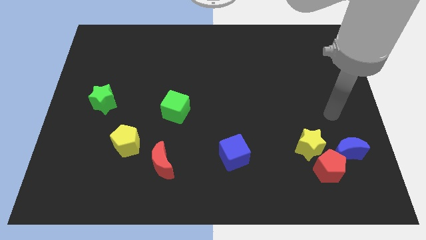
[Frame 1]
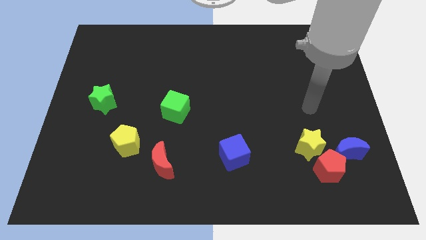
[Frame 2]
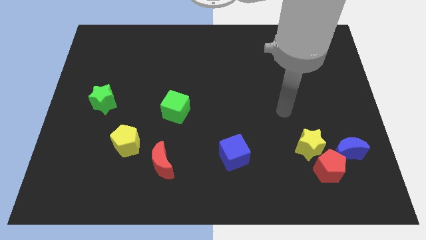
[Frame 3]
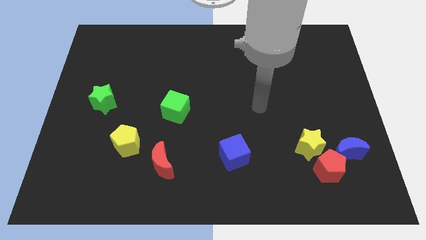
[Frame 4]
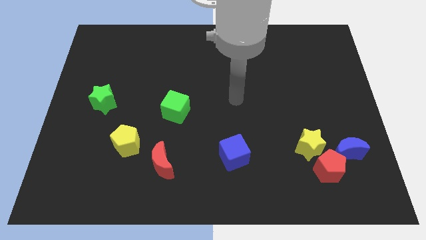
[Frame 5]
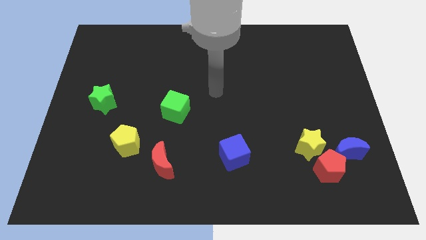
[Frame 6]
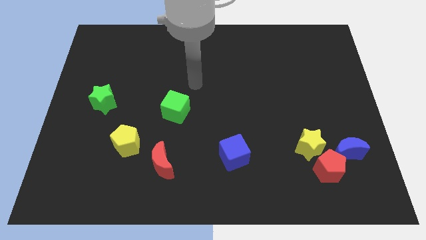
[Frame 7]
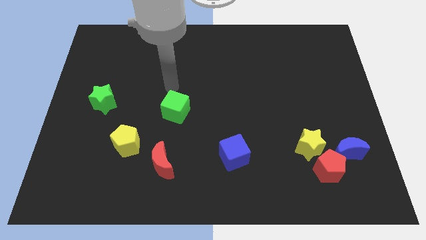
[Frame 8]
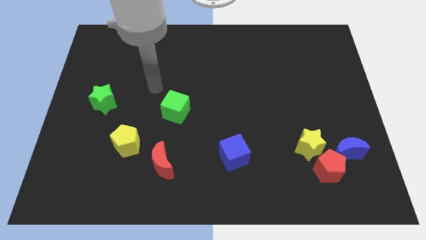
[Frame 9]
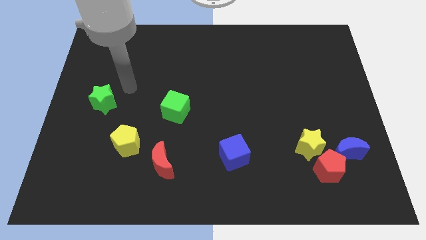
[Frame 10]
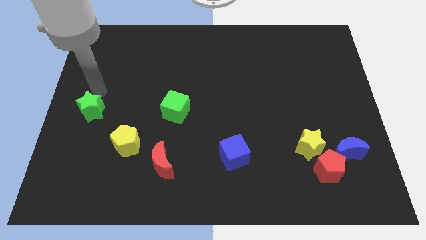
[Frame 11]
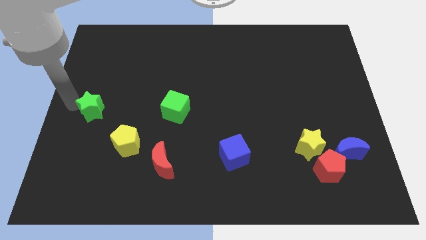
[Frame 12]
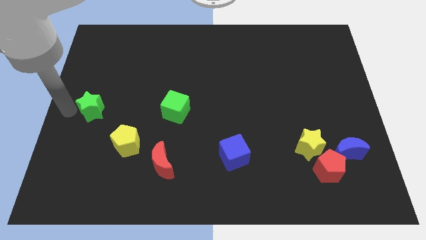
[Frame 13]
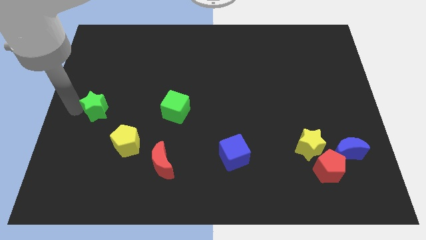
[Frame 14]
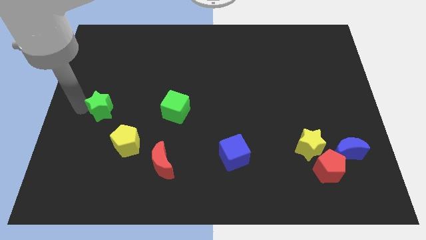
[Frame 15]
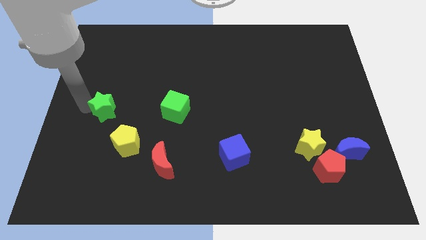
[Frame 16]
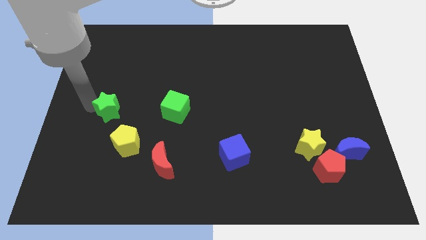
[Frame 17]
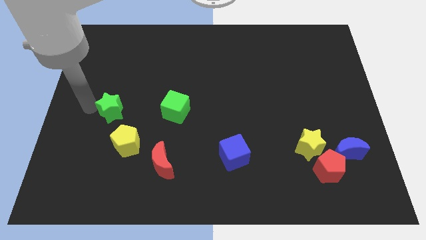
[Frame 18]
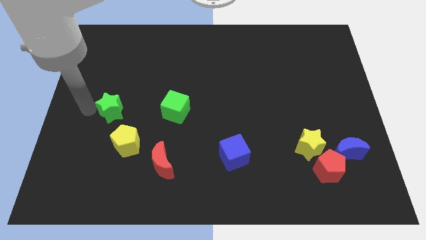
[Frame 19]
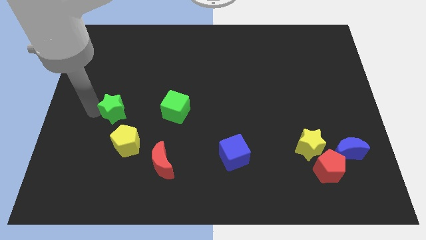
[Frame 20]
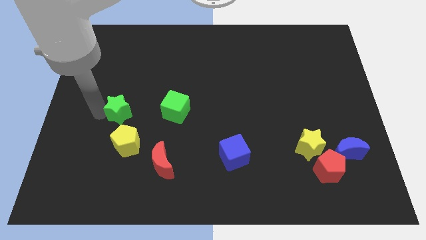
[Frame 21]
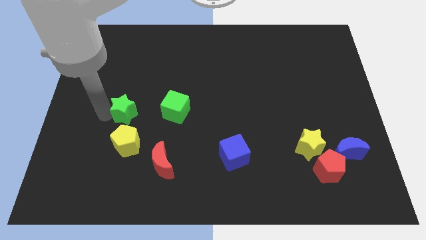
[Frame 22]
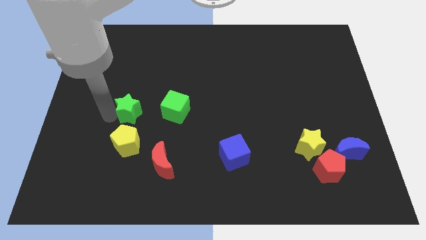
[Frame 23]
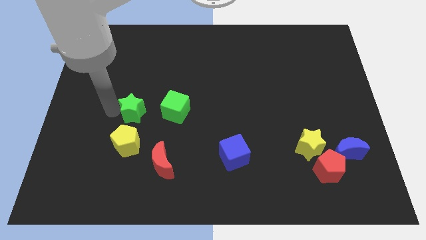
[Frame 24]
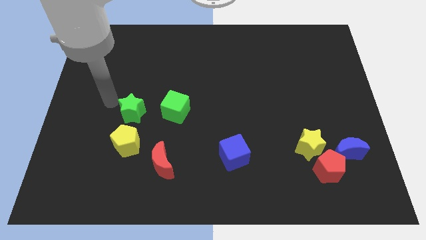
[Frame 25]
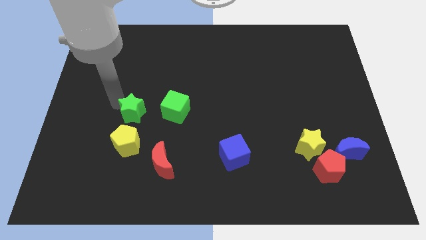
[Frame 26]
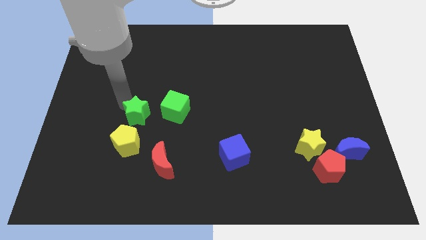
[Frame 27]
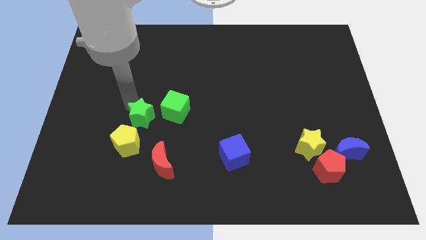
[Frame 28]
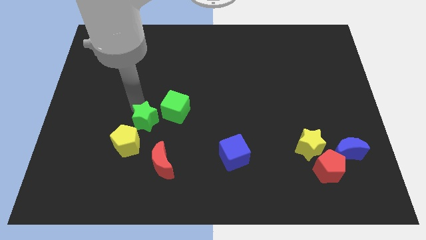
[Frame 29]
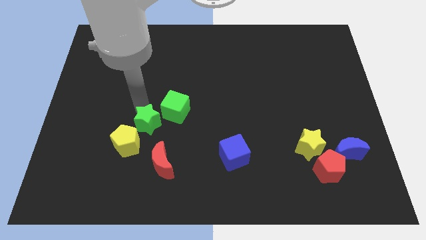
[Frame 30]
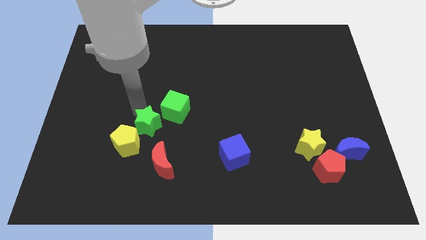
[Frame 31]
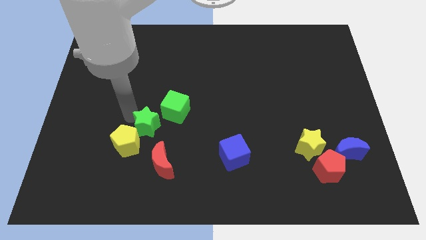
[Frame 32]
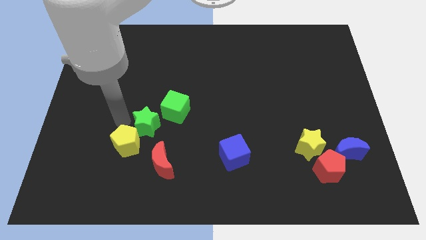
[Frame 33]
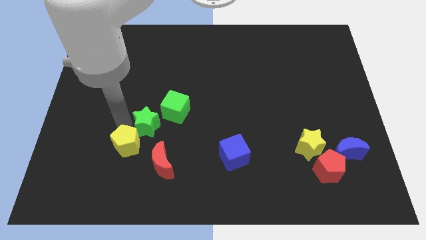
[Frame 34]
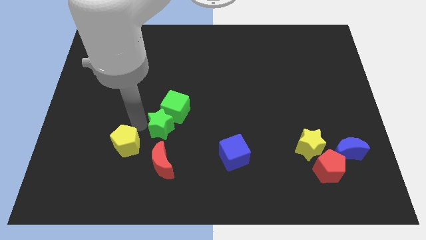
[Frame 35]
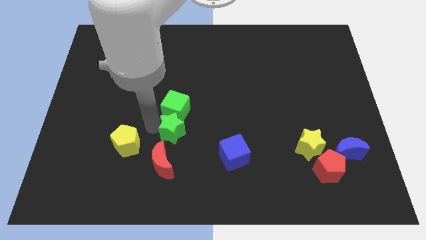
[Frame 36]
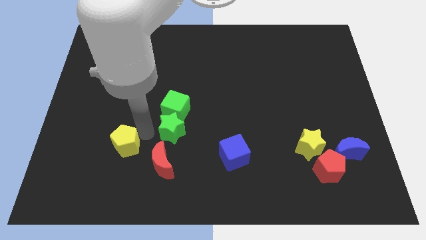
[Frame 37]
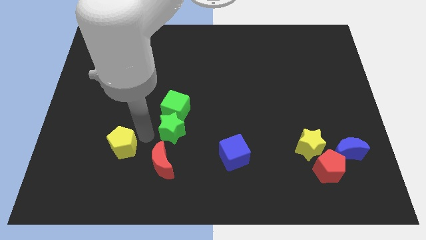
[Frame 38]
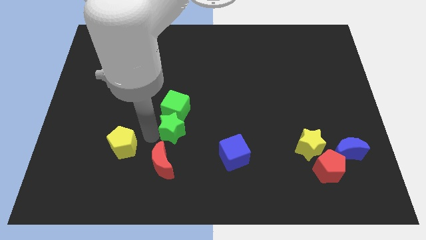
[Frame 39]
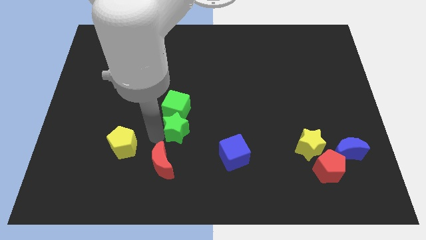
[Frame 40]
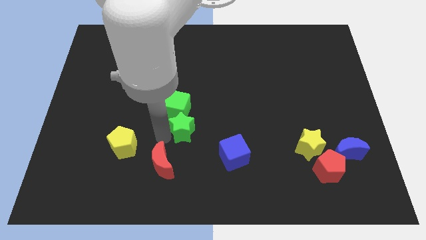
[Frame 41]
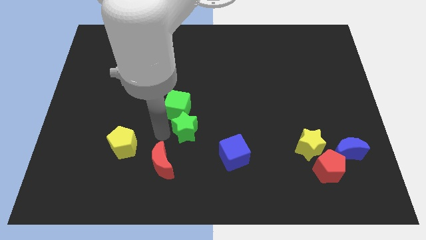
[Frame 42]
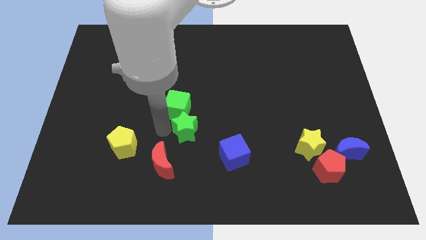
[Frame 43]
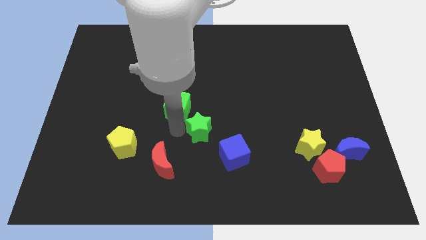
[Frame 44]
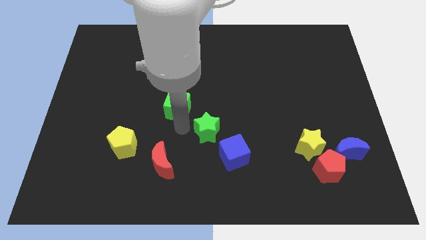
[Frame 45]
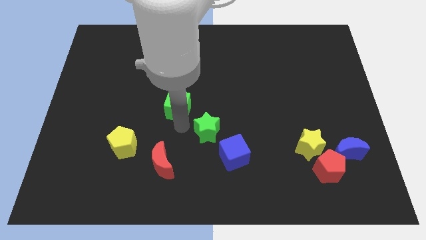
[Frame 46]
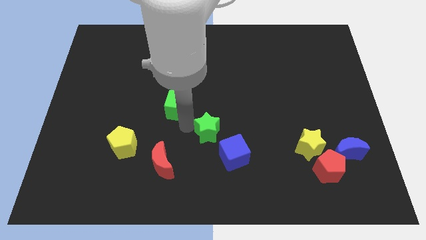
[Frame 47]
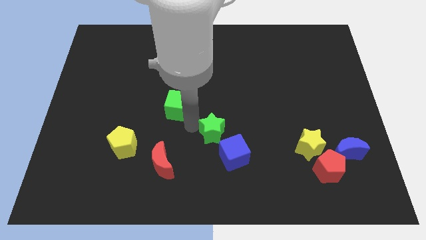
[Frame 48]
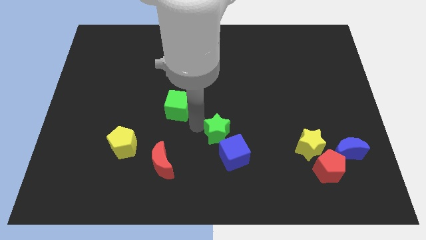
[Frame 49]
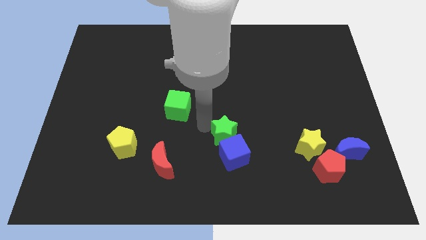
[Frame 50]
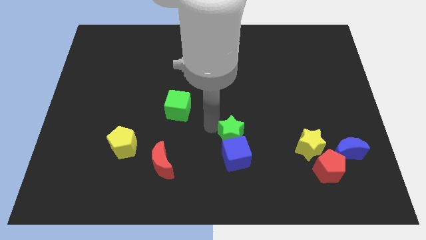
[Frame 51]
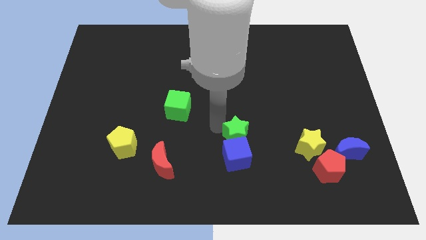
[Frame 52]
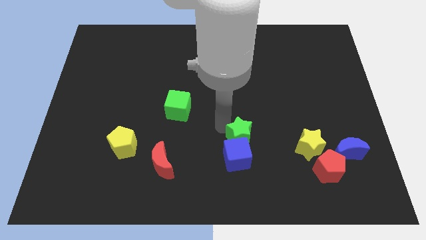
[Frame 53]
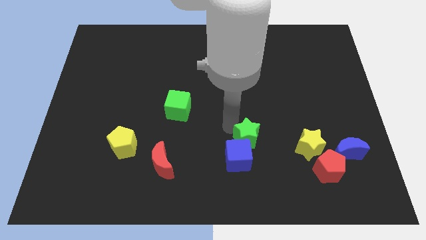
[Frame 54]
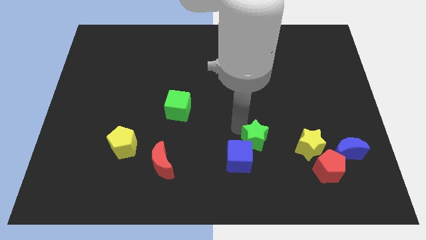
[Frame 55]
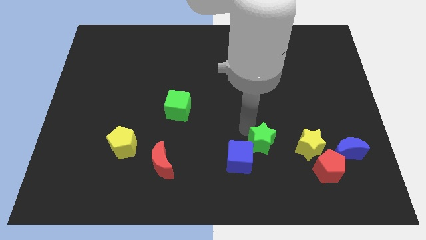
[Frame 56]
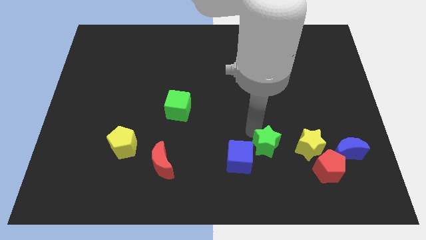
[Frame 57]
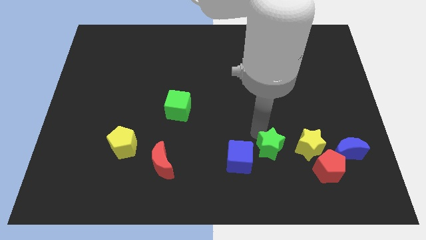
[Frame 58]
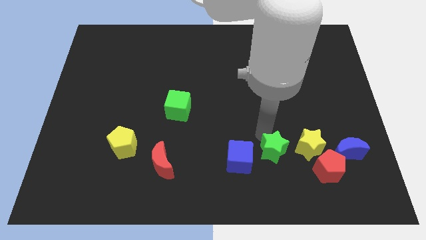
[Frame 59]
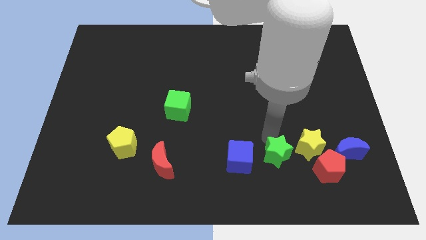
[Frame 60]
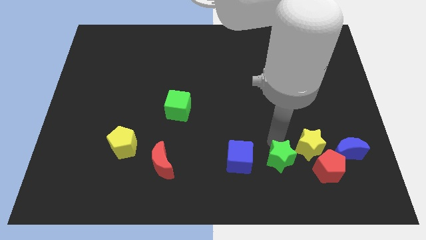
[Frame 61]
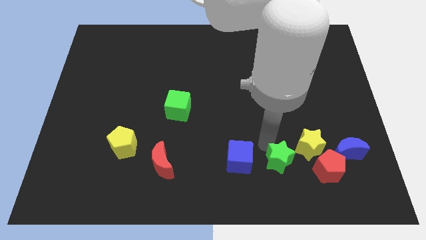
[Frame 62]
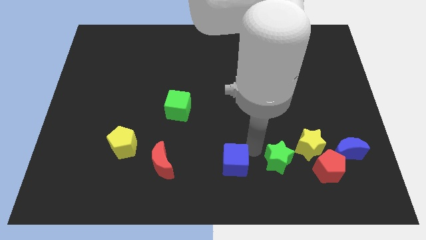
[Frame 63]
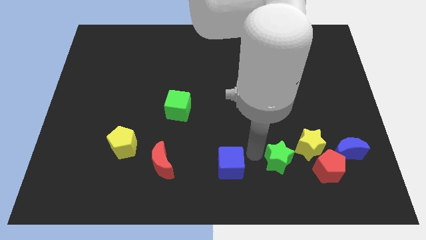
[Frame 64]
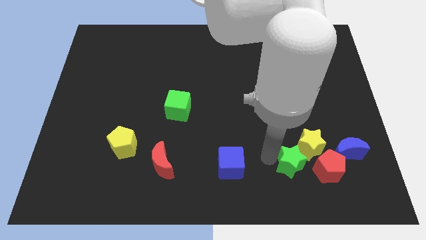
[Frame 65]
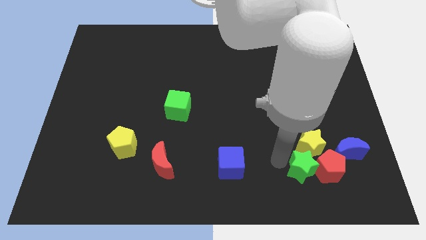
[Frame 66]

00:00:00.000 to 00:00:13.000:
move the green star close to the red pentagon

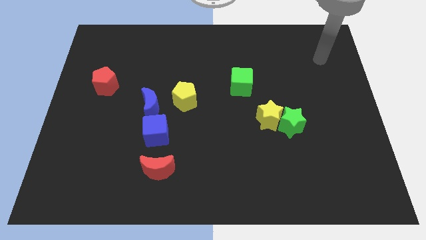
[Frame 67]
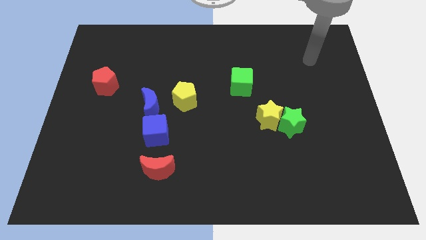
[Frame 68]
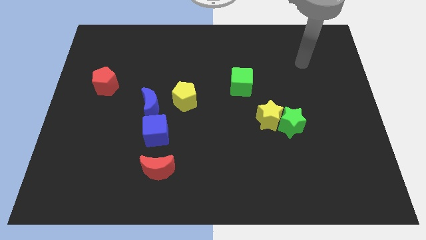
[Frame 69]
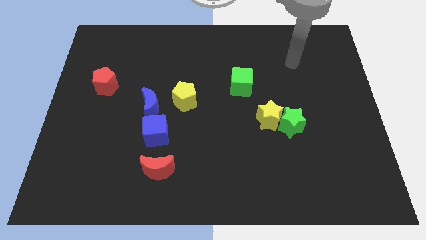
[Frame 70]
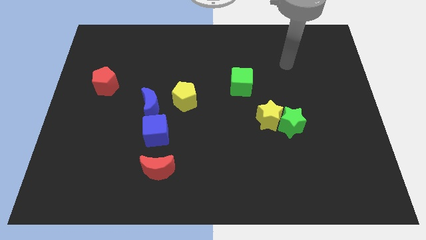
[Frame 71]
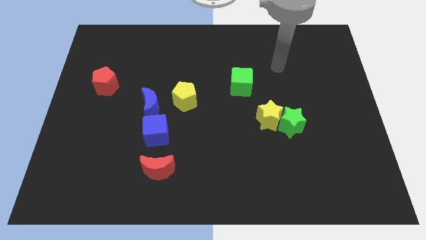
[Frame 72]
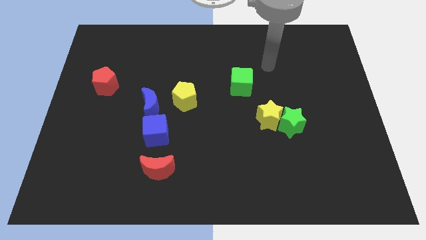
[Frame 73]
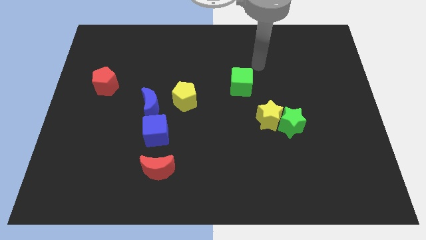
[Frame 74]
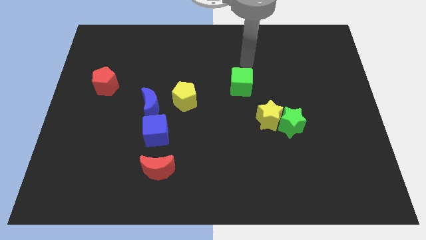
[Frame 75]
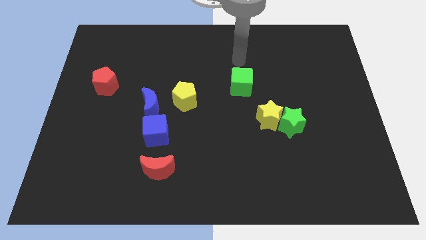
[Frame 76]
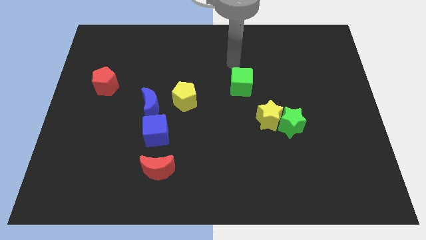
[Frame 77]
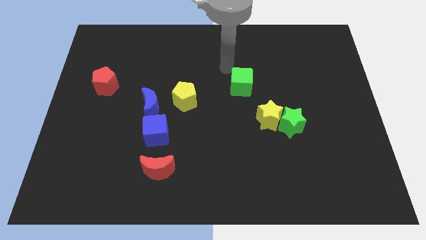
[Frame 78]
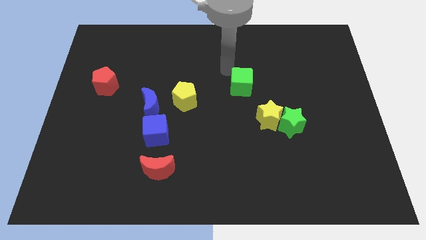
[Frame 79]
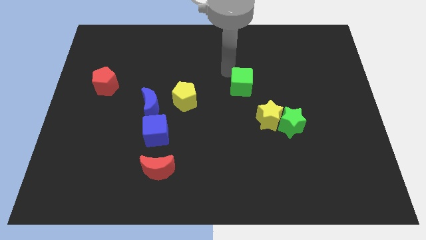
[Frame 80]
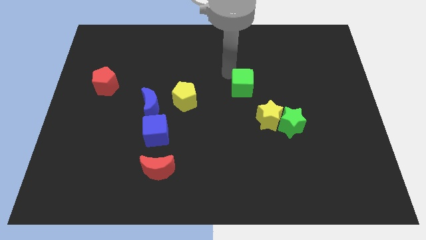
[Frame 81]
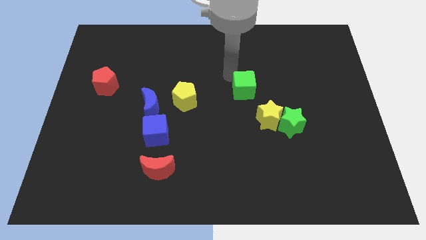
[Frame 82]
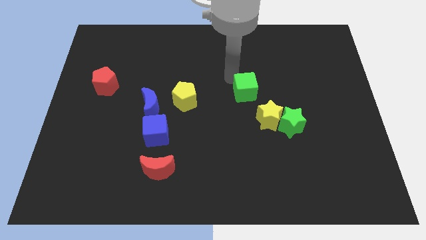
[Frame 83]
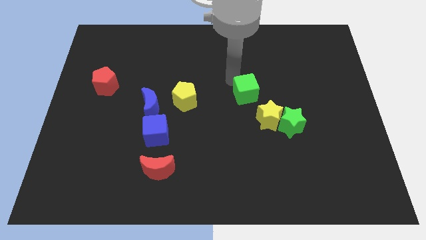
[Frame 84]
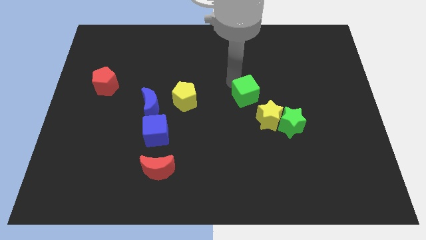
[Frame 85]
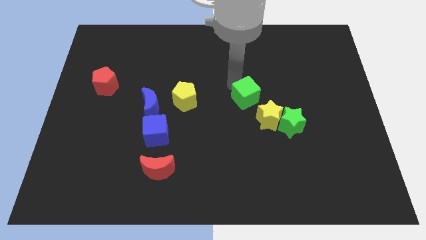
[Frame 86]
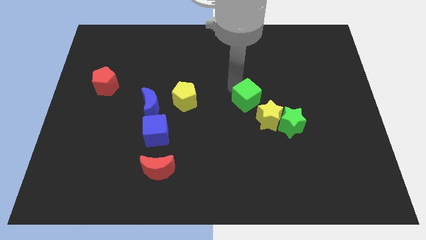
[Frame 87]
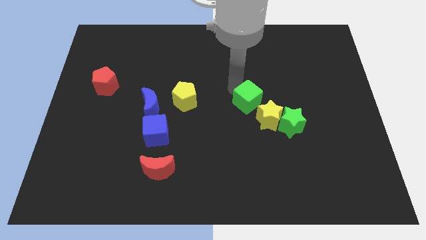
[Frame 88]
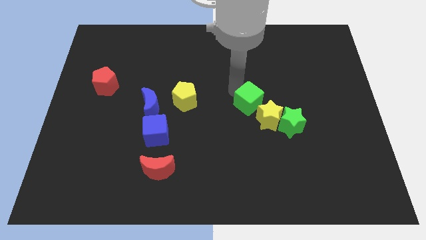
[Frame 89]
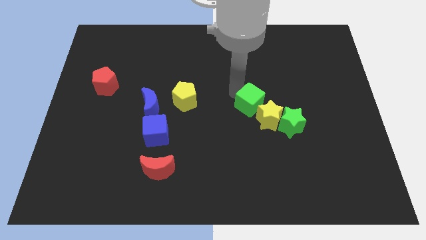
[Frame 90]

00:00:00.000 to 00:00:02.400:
slide the green cube next to the yellow star
